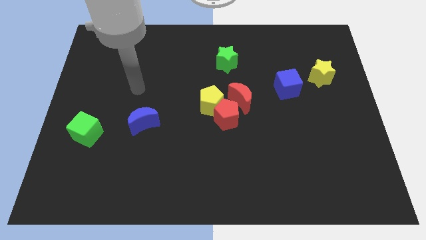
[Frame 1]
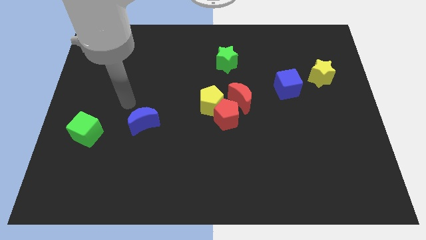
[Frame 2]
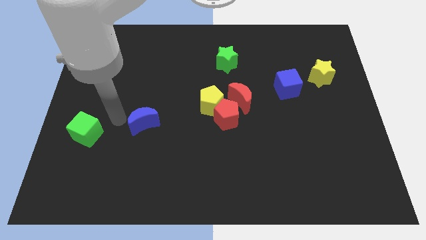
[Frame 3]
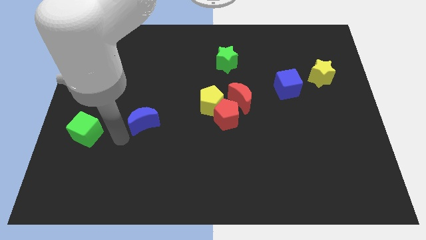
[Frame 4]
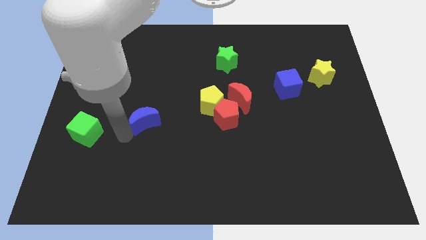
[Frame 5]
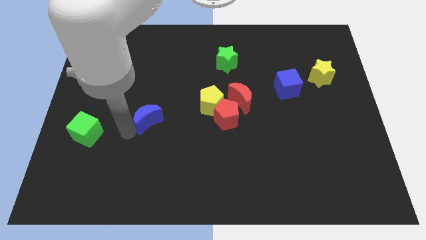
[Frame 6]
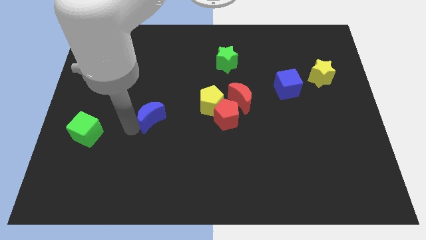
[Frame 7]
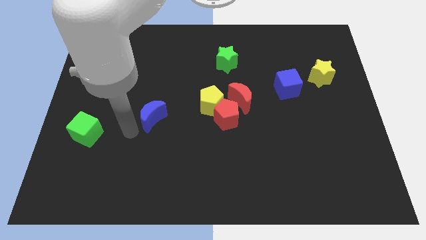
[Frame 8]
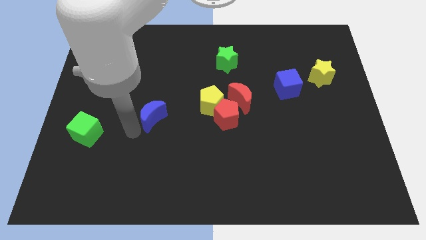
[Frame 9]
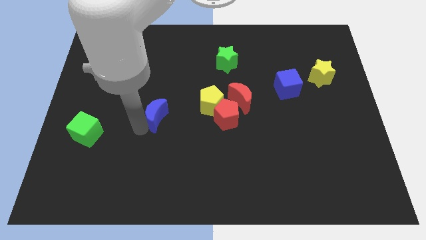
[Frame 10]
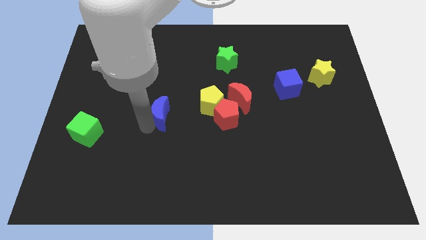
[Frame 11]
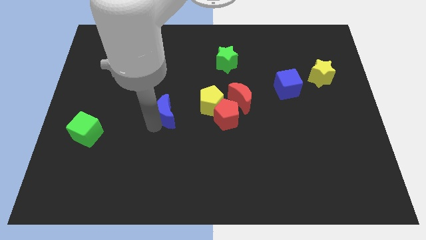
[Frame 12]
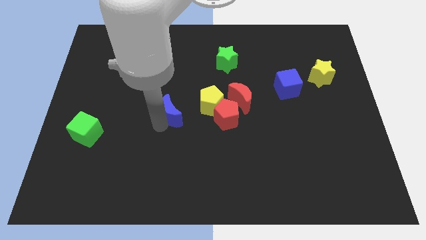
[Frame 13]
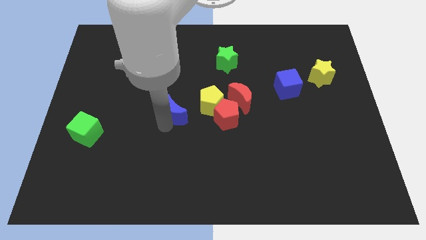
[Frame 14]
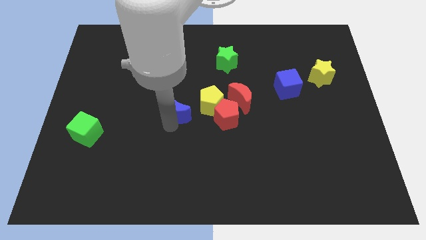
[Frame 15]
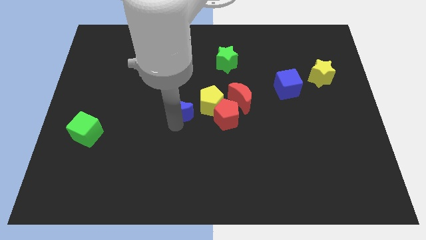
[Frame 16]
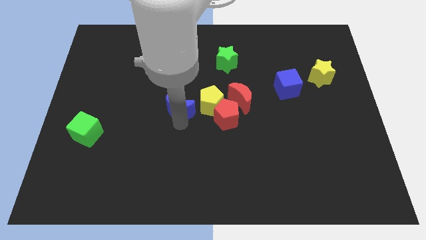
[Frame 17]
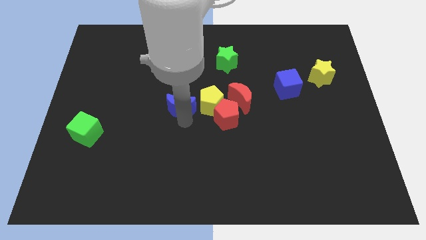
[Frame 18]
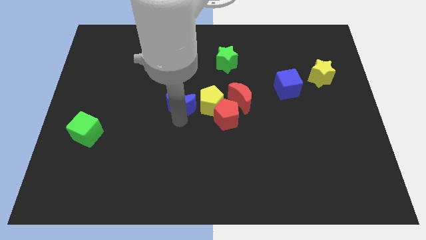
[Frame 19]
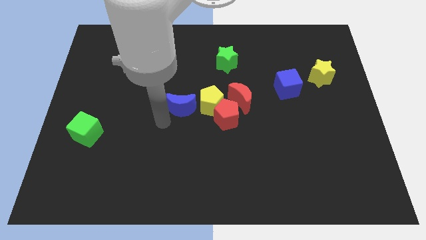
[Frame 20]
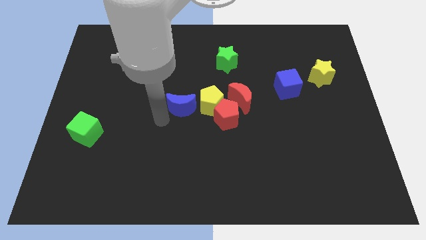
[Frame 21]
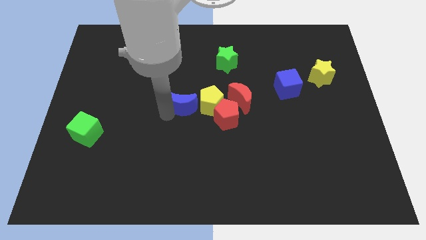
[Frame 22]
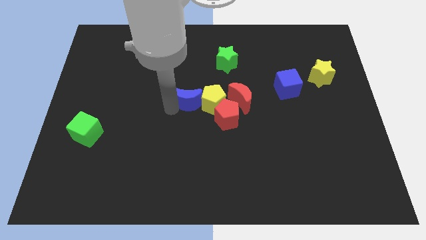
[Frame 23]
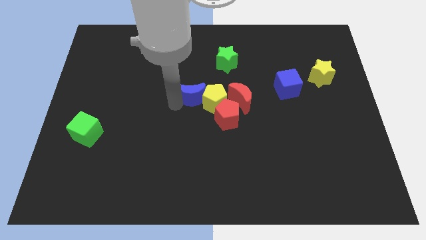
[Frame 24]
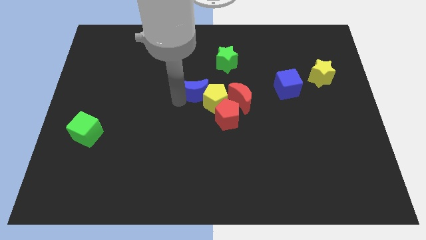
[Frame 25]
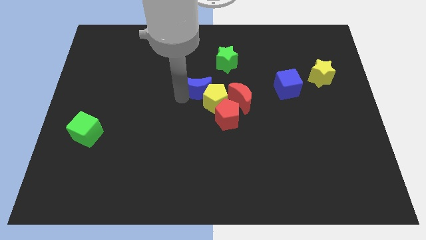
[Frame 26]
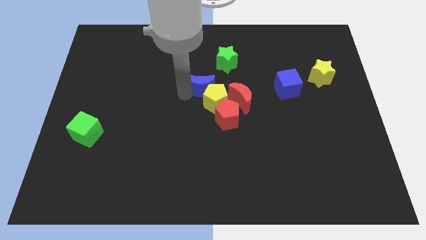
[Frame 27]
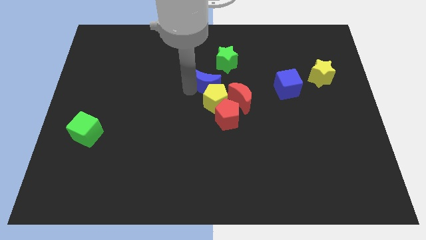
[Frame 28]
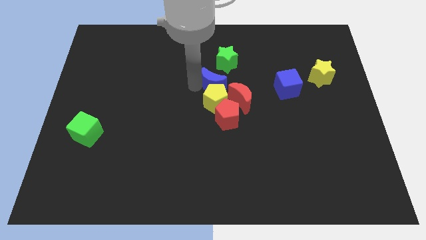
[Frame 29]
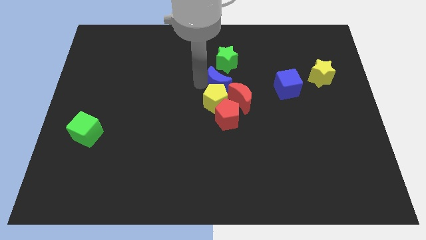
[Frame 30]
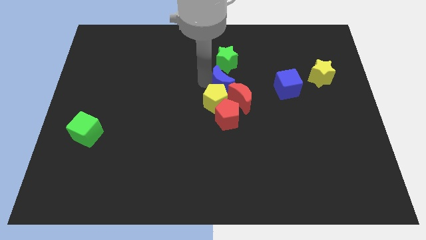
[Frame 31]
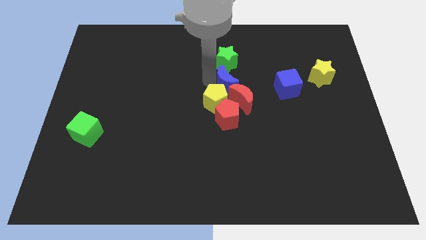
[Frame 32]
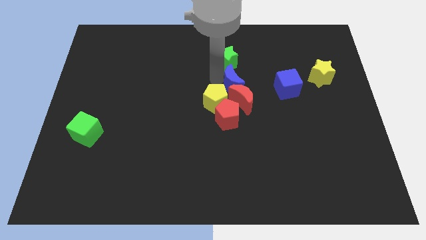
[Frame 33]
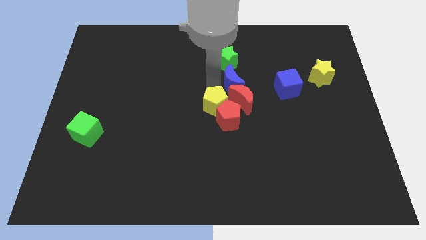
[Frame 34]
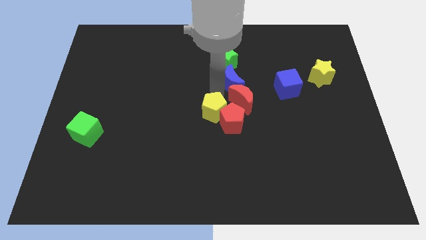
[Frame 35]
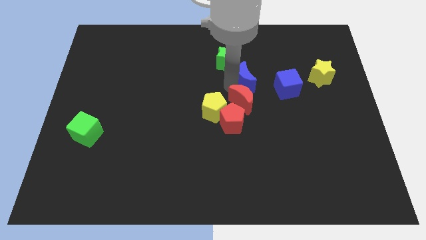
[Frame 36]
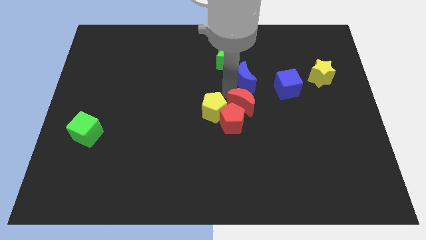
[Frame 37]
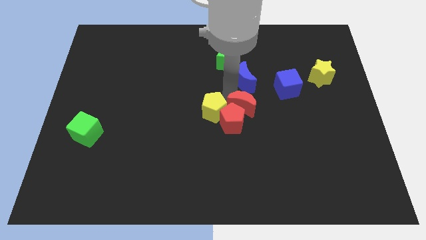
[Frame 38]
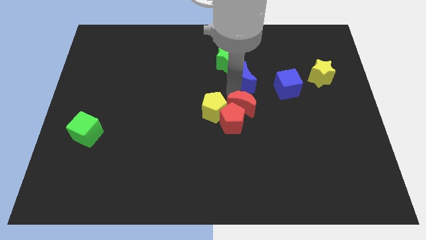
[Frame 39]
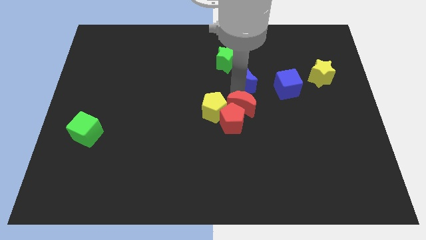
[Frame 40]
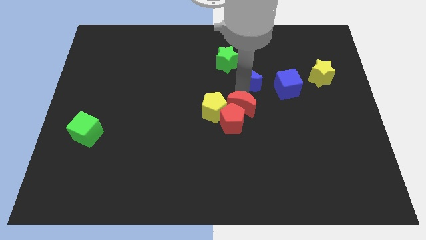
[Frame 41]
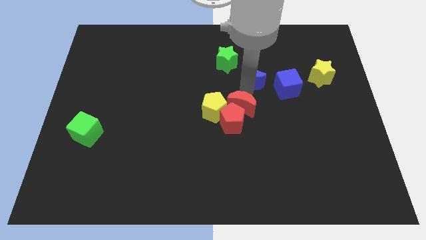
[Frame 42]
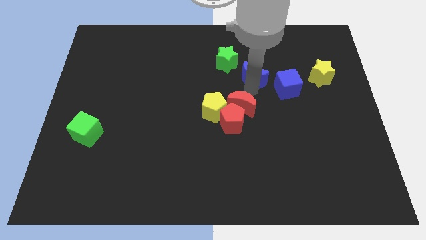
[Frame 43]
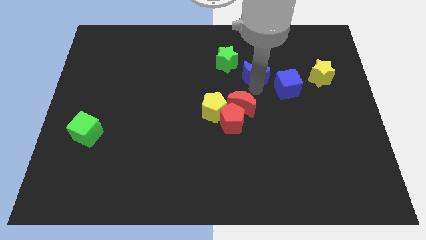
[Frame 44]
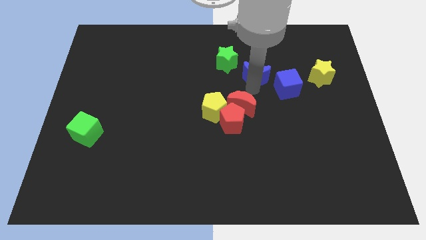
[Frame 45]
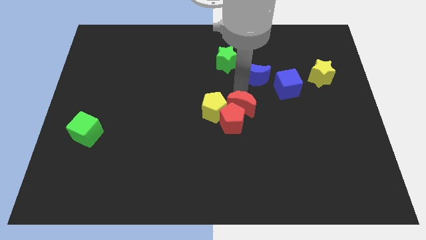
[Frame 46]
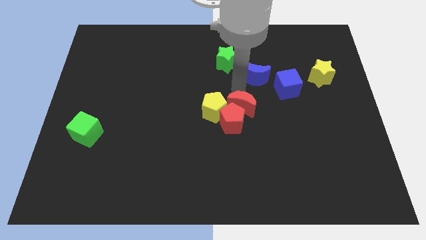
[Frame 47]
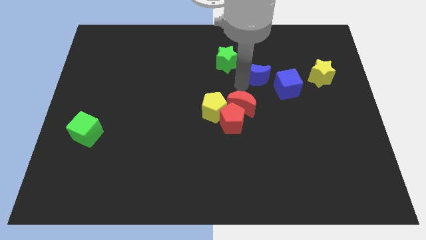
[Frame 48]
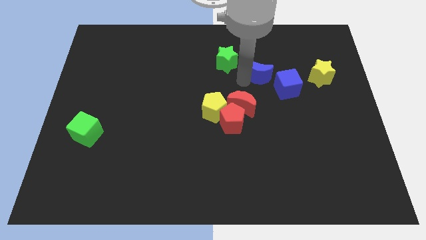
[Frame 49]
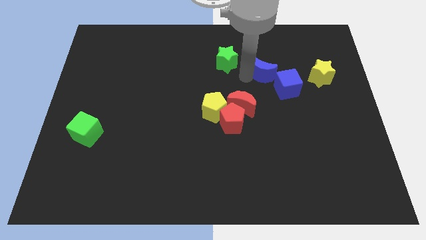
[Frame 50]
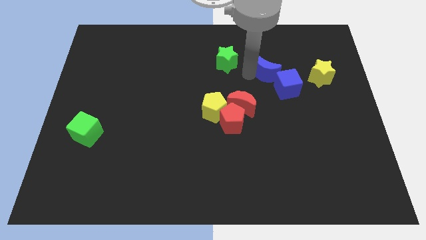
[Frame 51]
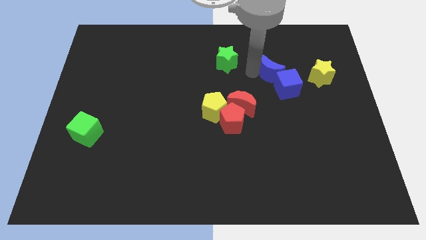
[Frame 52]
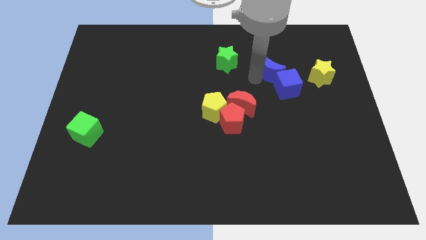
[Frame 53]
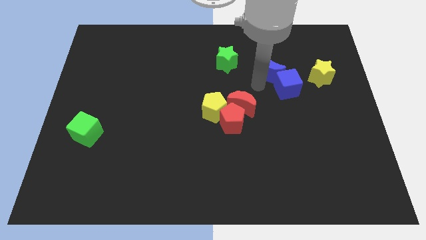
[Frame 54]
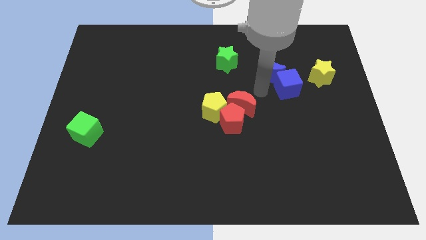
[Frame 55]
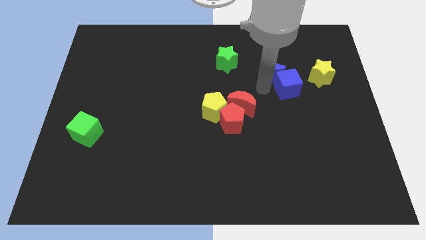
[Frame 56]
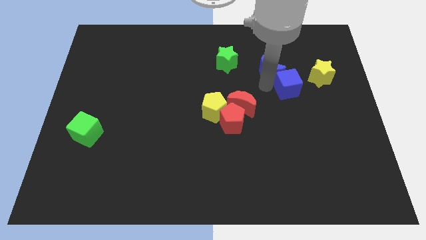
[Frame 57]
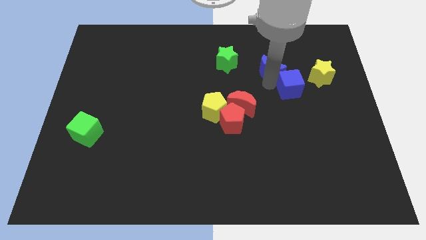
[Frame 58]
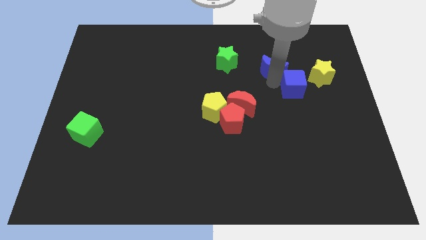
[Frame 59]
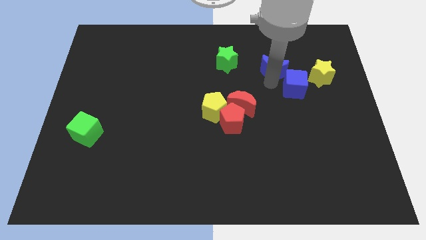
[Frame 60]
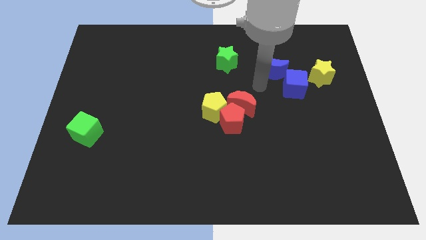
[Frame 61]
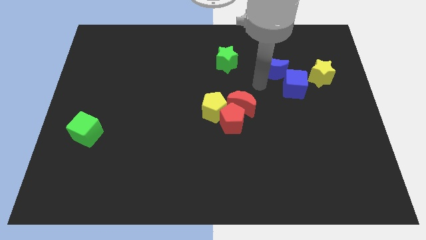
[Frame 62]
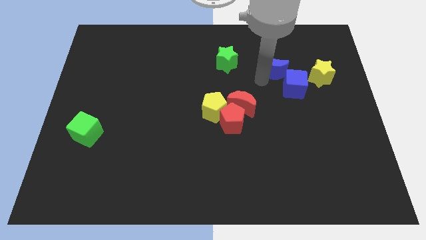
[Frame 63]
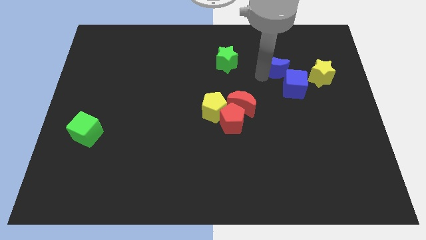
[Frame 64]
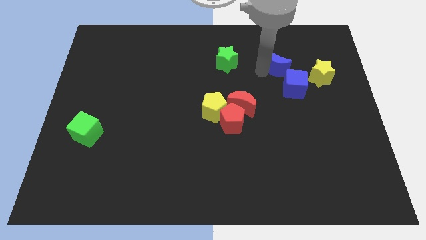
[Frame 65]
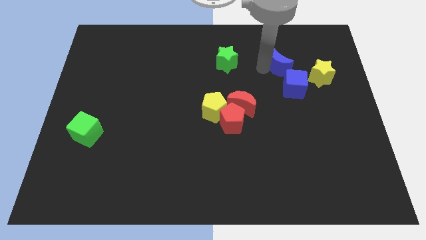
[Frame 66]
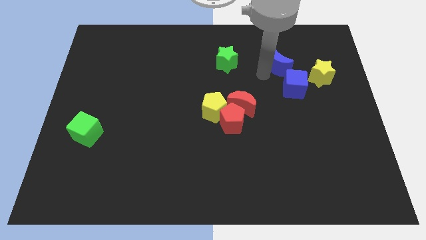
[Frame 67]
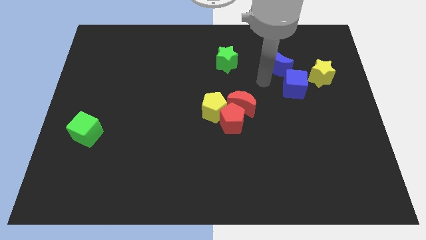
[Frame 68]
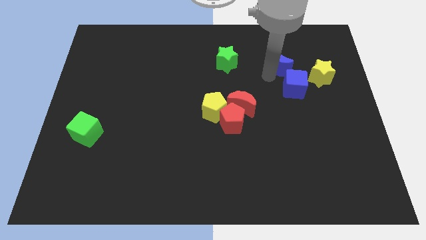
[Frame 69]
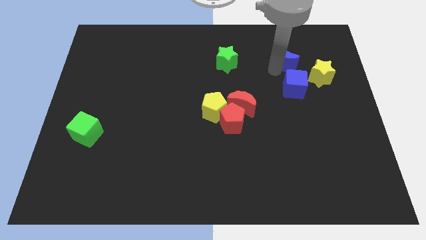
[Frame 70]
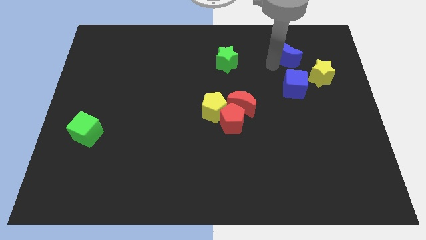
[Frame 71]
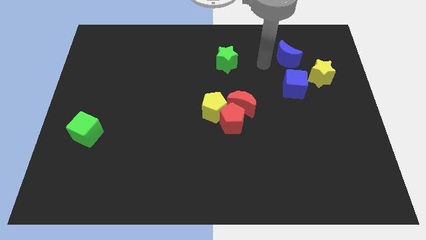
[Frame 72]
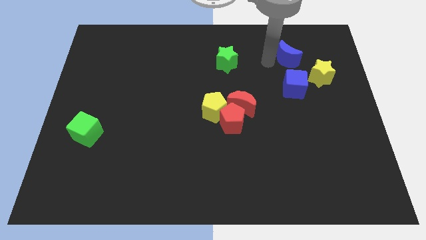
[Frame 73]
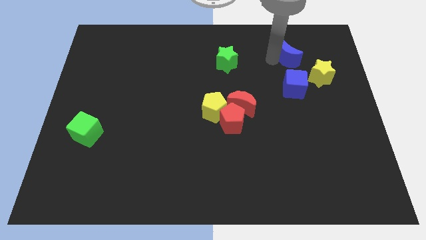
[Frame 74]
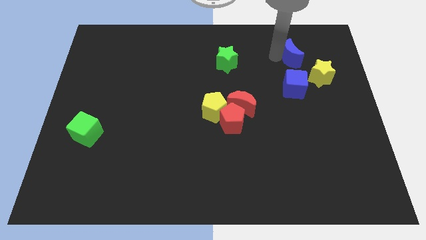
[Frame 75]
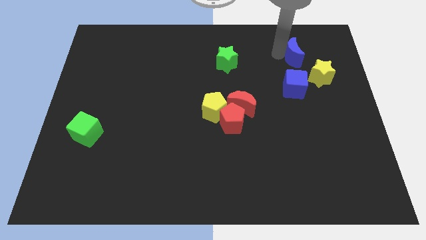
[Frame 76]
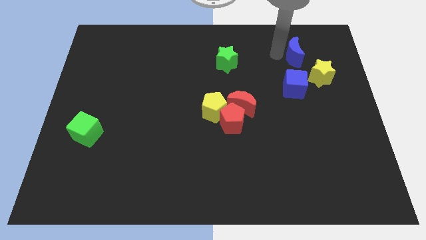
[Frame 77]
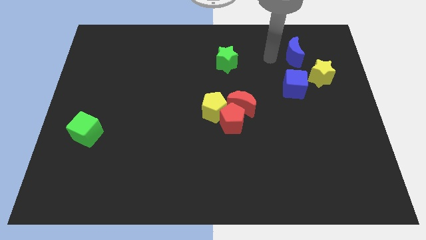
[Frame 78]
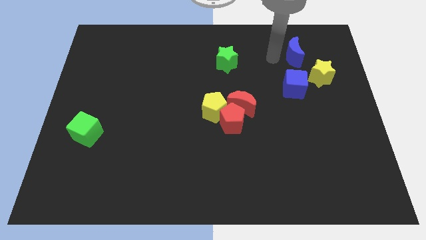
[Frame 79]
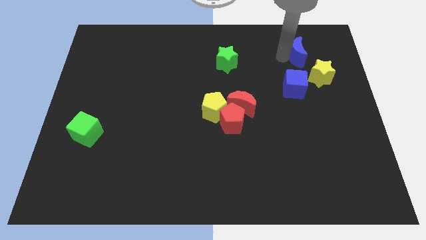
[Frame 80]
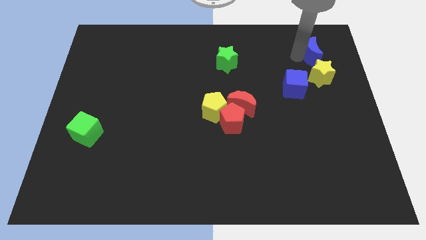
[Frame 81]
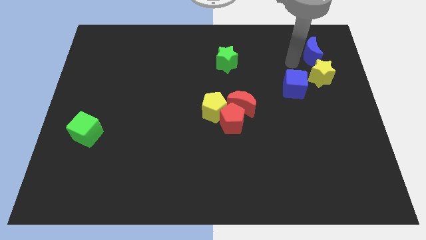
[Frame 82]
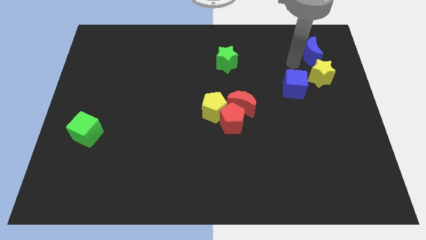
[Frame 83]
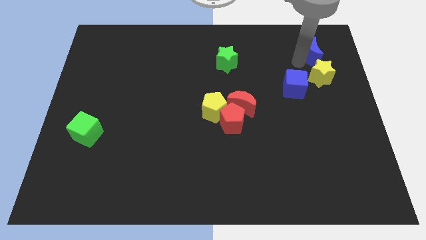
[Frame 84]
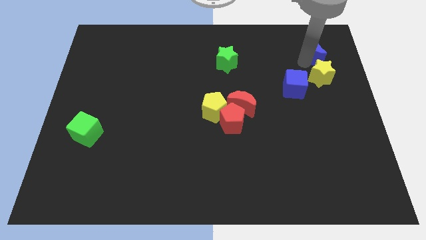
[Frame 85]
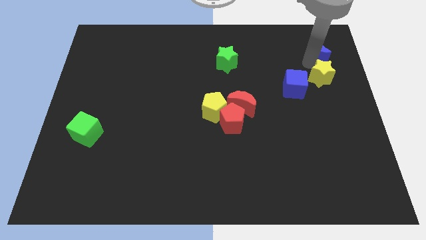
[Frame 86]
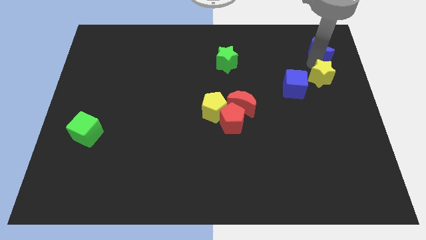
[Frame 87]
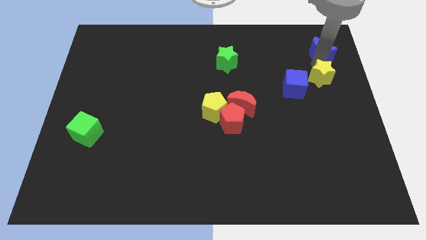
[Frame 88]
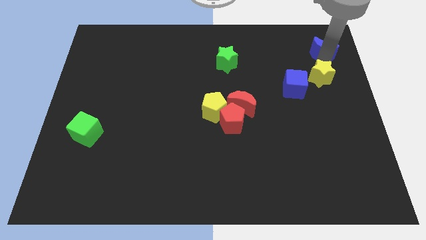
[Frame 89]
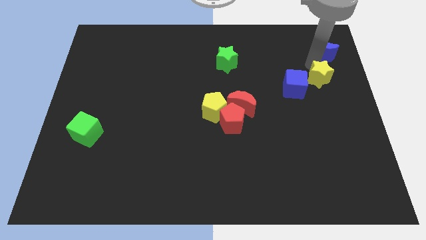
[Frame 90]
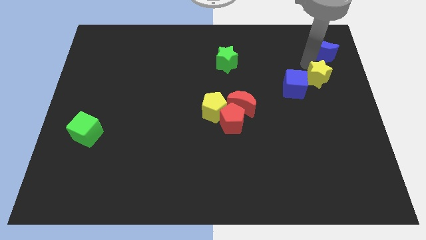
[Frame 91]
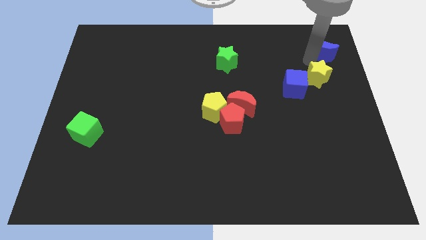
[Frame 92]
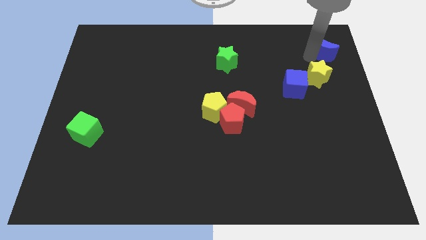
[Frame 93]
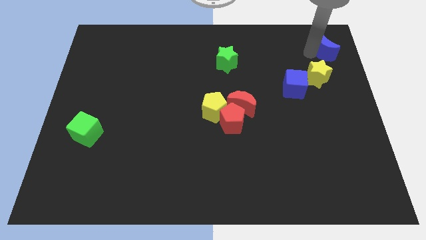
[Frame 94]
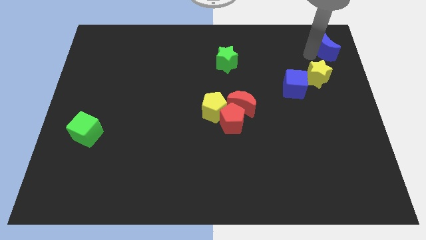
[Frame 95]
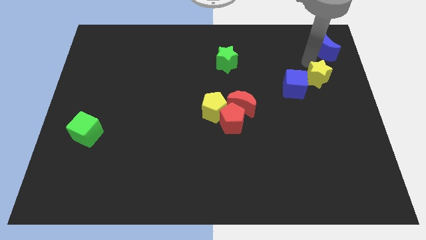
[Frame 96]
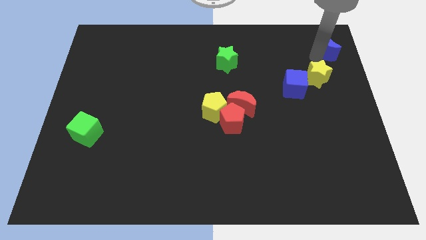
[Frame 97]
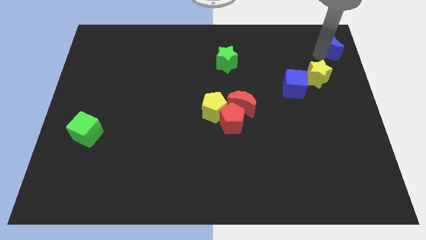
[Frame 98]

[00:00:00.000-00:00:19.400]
move the blue moon to the top right
